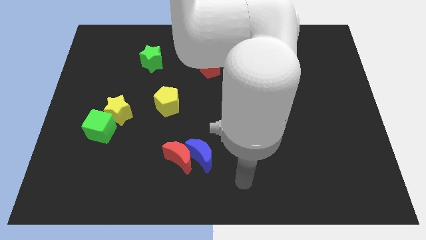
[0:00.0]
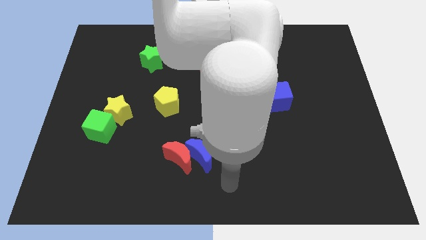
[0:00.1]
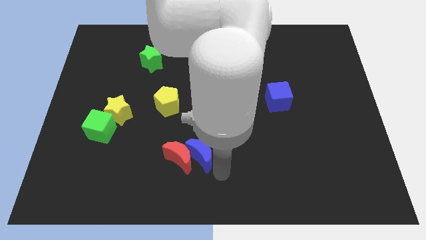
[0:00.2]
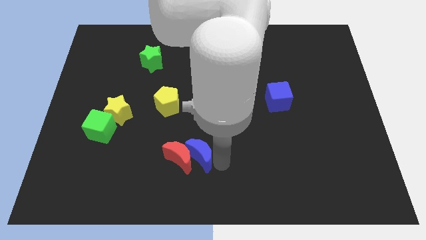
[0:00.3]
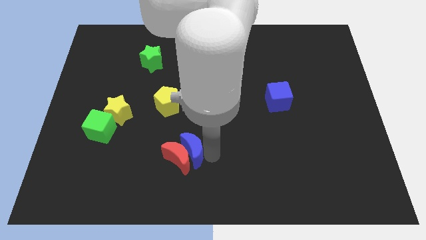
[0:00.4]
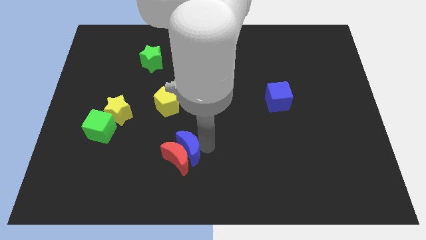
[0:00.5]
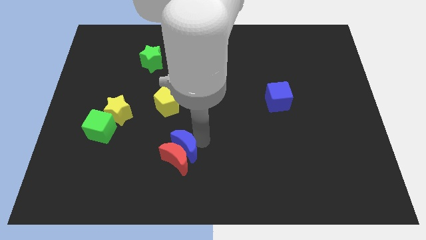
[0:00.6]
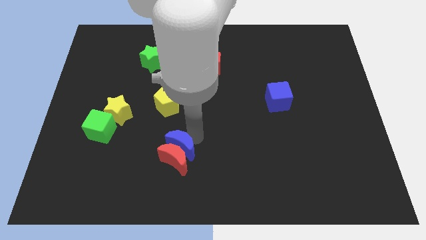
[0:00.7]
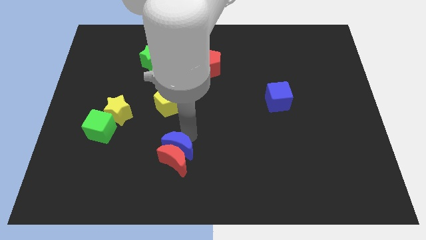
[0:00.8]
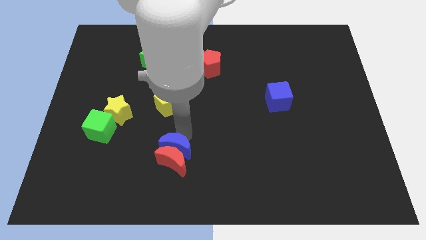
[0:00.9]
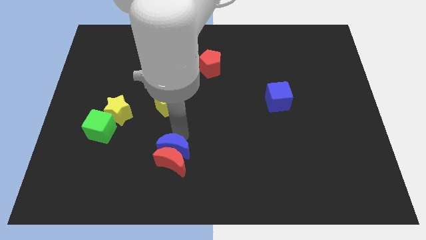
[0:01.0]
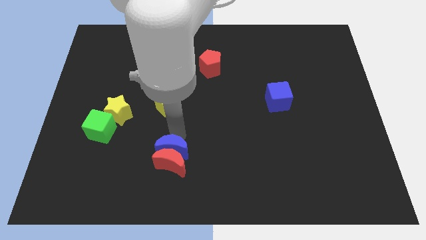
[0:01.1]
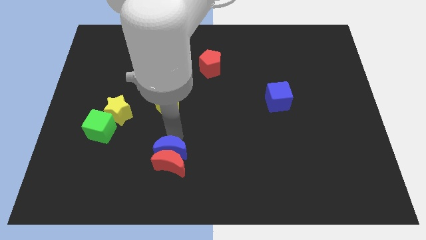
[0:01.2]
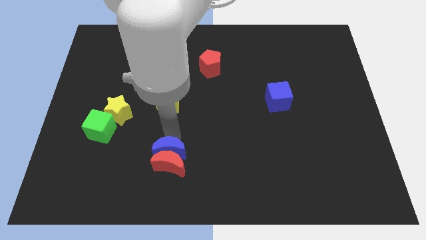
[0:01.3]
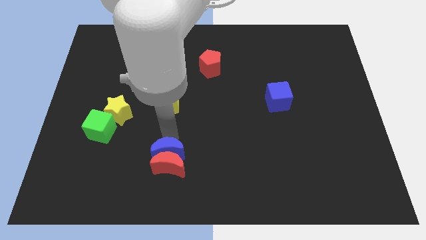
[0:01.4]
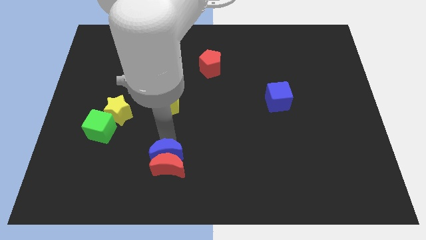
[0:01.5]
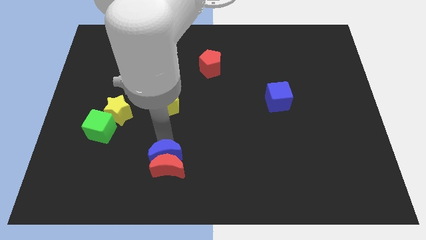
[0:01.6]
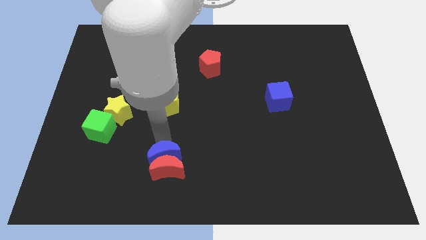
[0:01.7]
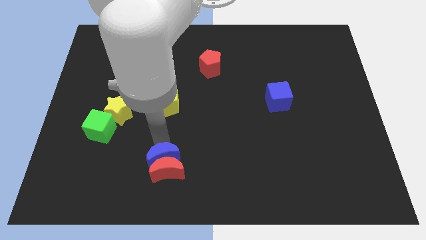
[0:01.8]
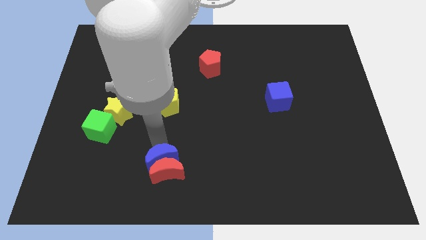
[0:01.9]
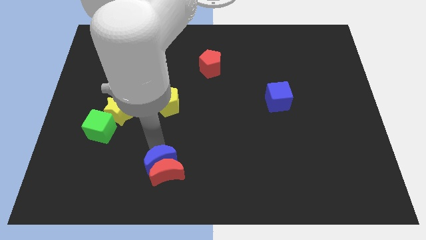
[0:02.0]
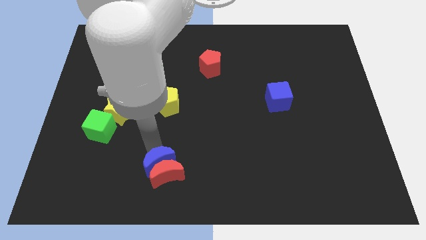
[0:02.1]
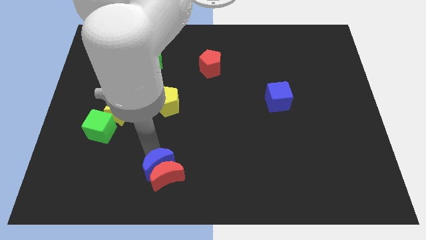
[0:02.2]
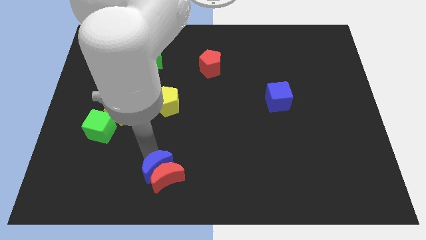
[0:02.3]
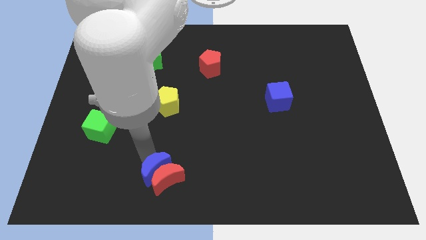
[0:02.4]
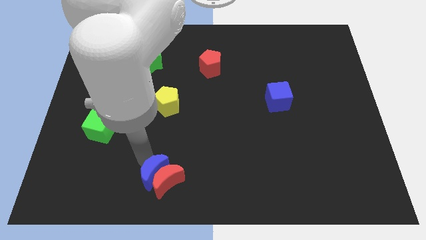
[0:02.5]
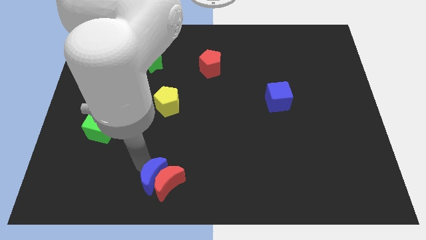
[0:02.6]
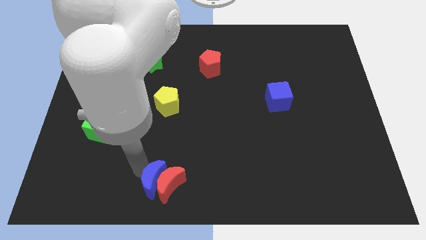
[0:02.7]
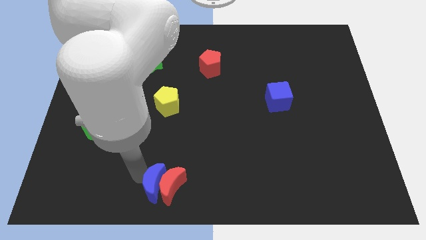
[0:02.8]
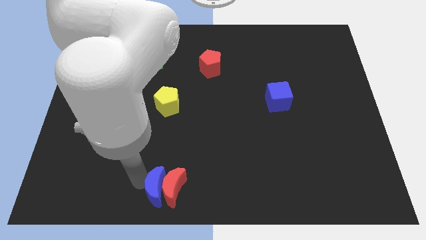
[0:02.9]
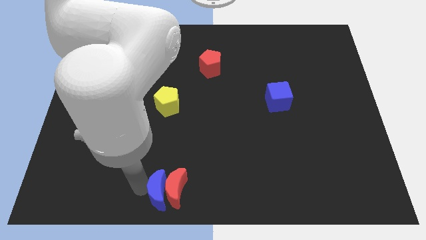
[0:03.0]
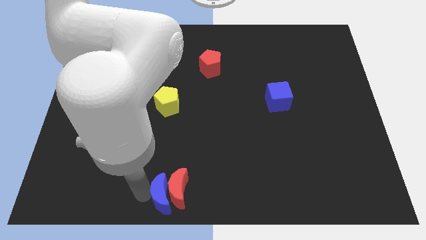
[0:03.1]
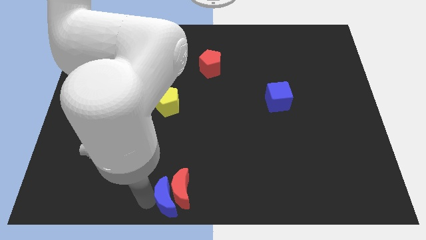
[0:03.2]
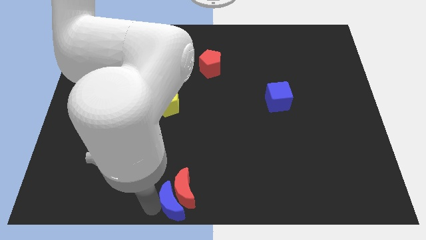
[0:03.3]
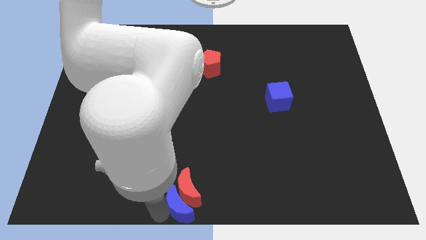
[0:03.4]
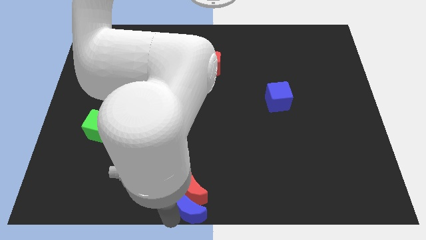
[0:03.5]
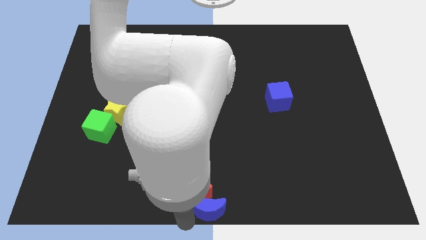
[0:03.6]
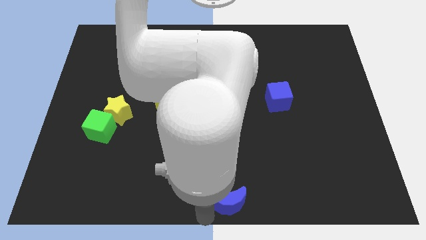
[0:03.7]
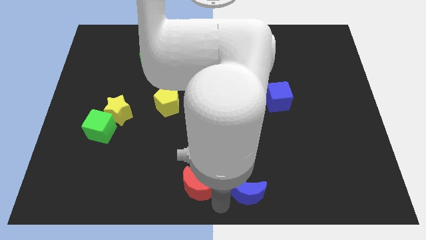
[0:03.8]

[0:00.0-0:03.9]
pull the red moon apart from the blue moon

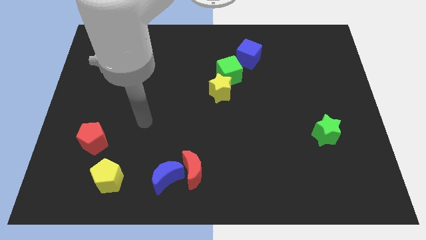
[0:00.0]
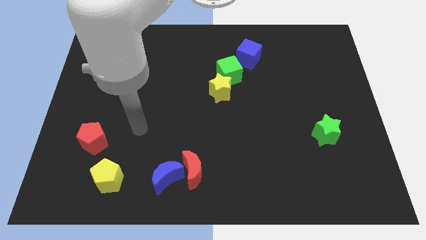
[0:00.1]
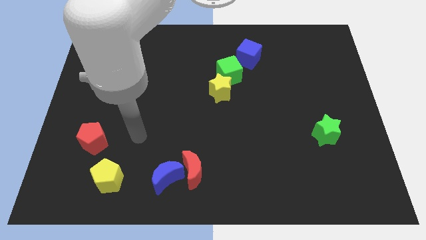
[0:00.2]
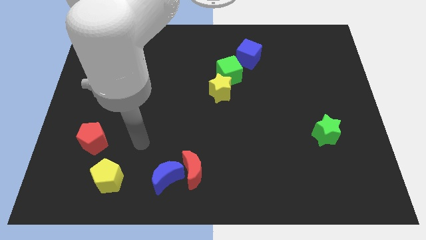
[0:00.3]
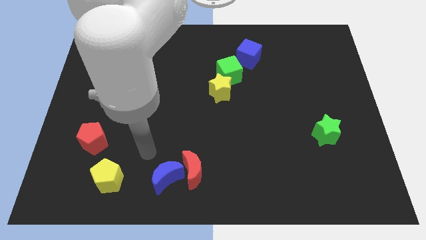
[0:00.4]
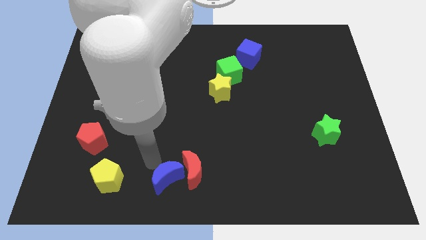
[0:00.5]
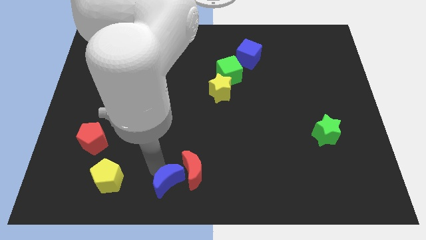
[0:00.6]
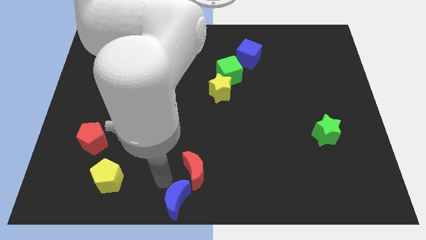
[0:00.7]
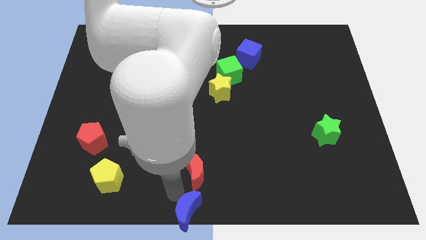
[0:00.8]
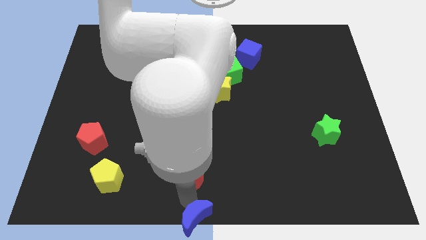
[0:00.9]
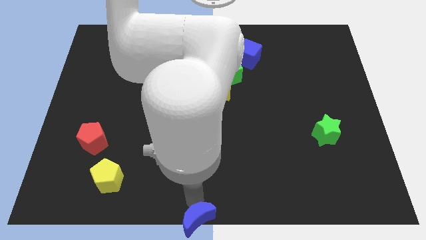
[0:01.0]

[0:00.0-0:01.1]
separate the red moon from the blue moon

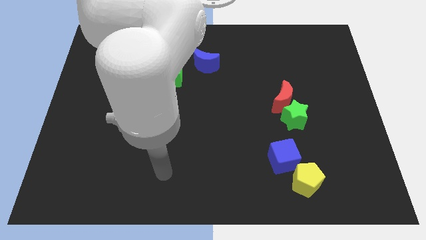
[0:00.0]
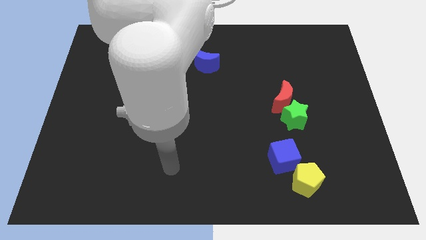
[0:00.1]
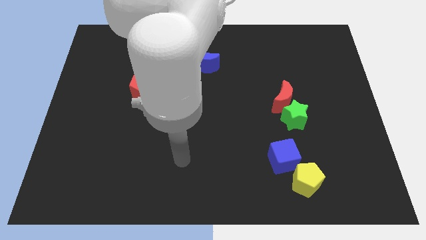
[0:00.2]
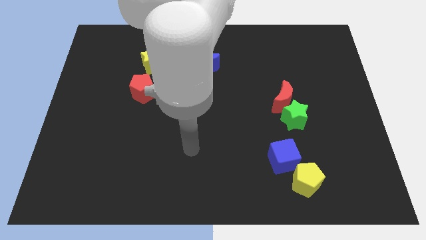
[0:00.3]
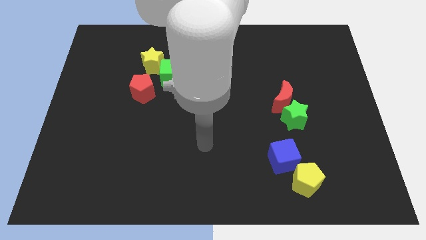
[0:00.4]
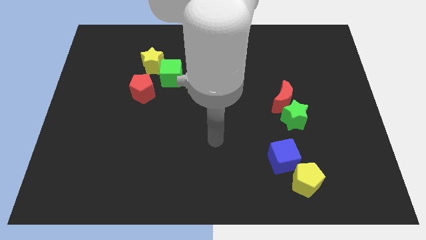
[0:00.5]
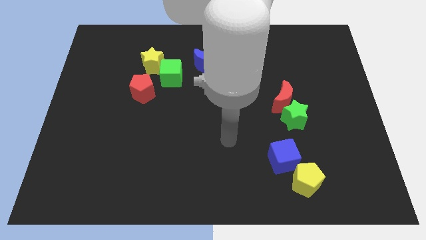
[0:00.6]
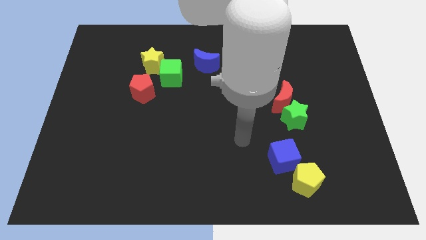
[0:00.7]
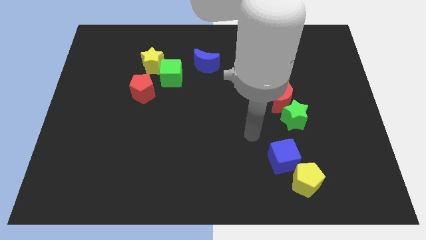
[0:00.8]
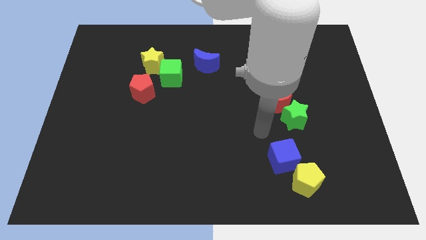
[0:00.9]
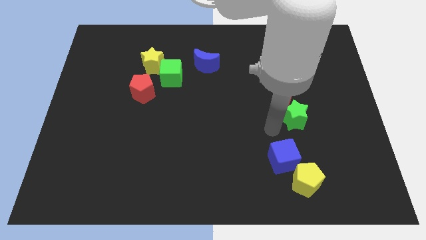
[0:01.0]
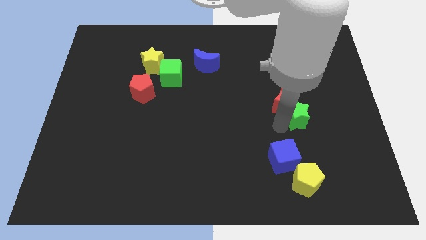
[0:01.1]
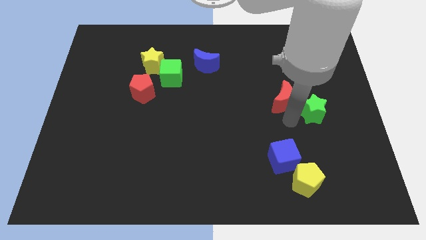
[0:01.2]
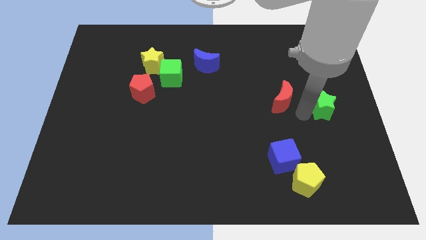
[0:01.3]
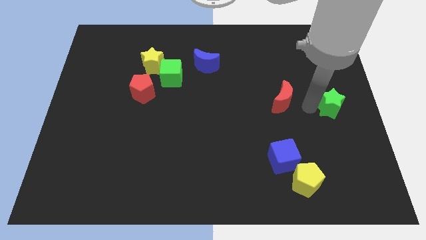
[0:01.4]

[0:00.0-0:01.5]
move the red moon away from the green star

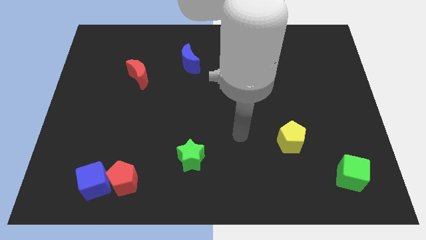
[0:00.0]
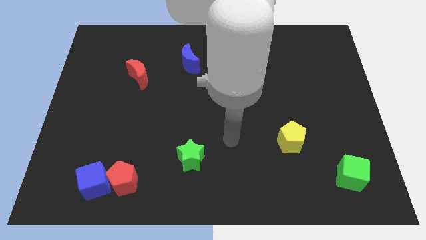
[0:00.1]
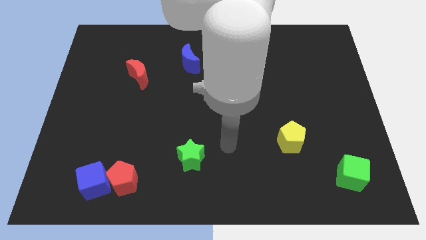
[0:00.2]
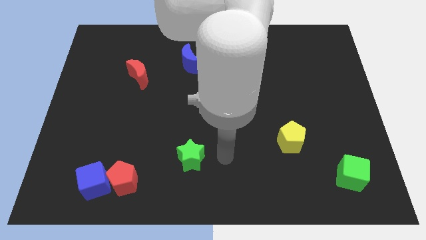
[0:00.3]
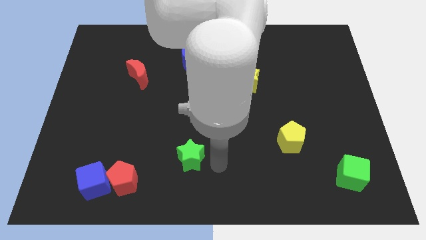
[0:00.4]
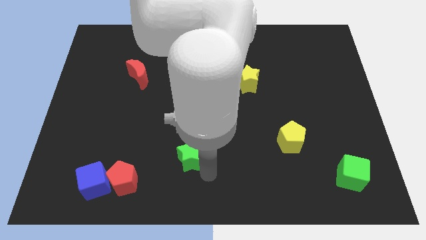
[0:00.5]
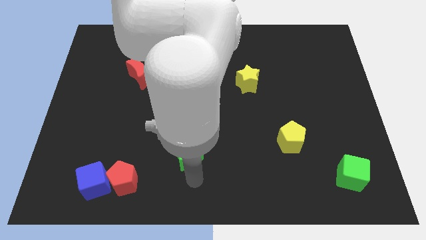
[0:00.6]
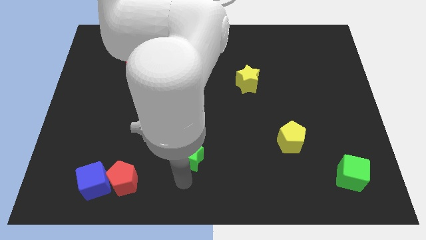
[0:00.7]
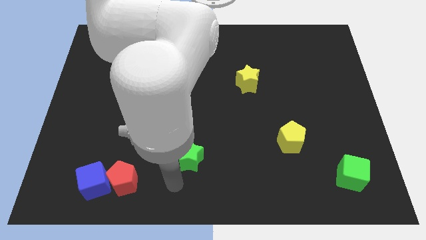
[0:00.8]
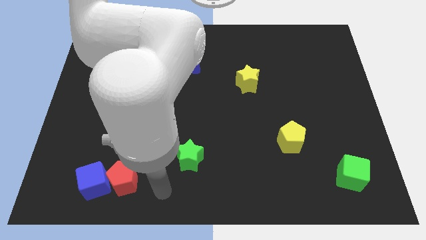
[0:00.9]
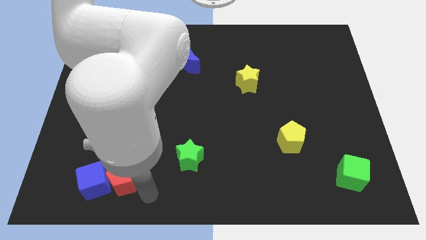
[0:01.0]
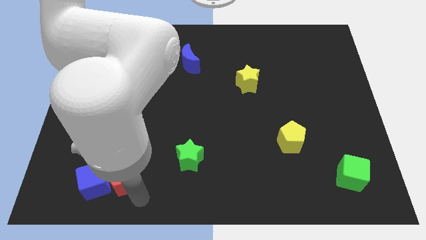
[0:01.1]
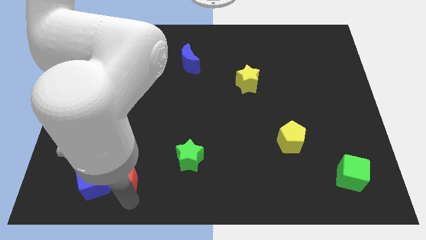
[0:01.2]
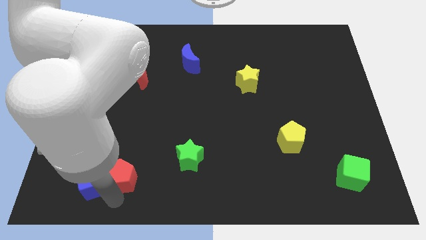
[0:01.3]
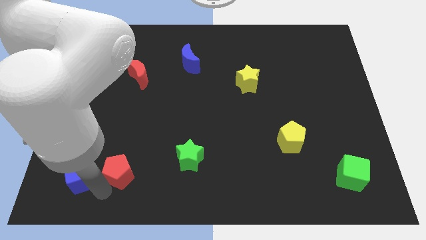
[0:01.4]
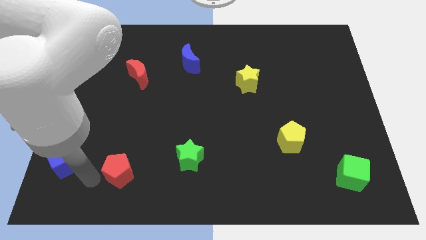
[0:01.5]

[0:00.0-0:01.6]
separate the red pentagon from the blue cube

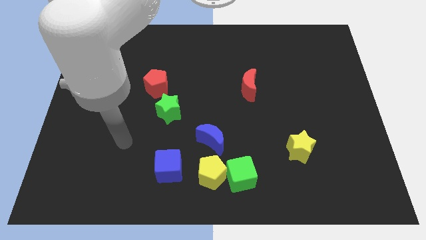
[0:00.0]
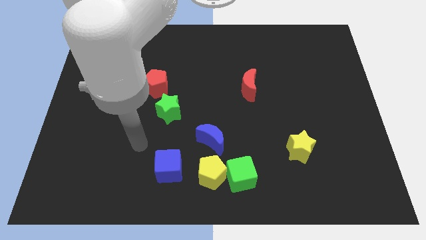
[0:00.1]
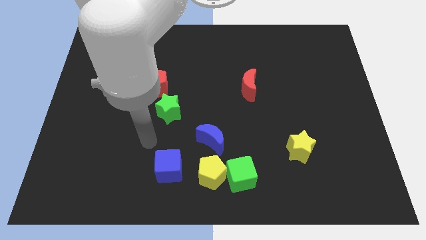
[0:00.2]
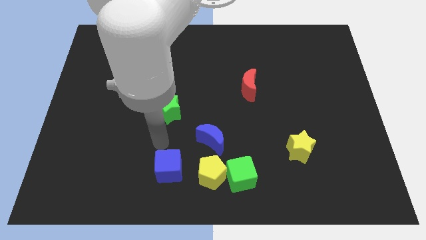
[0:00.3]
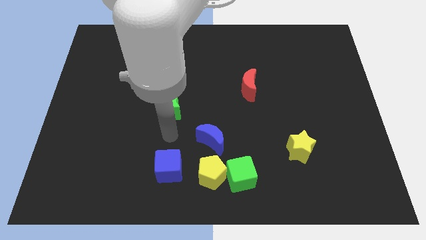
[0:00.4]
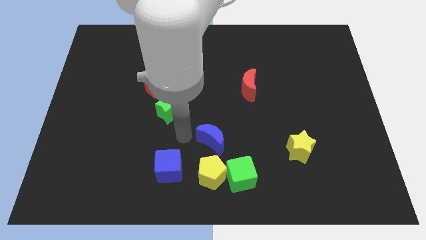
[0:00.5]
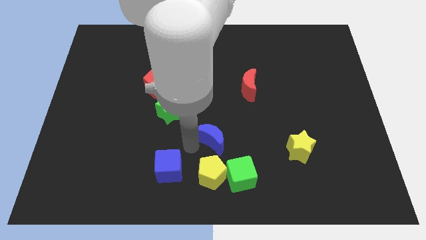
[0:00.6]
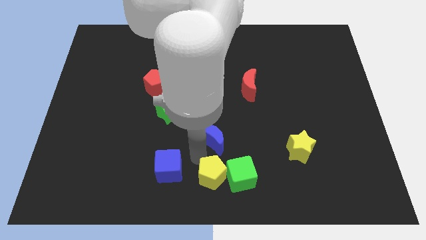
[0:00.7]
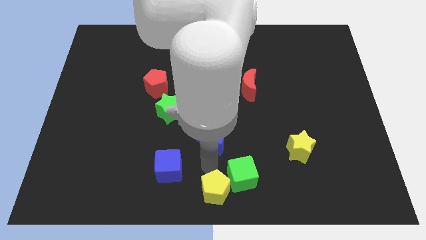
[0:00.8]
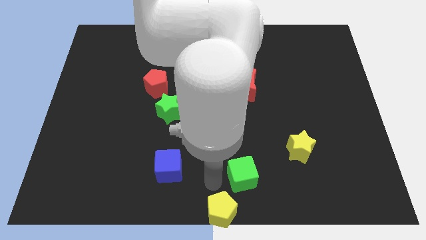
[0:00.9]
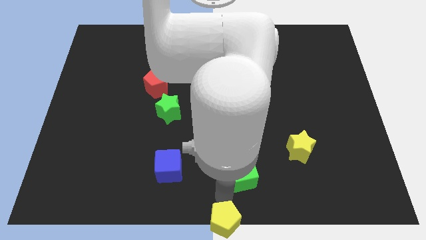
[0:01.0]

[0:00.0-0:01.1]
move the green cube away from the yellow pentagon

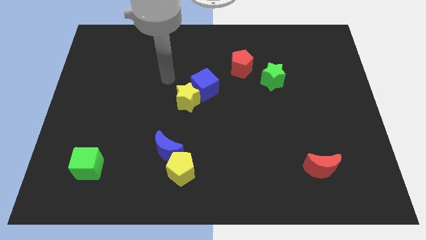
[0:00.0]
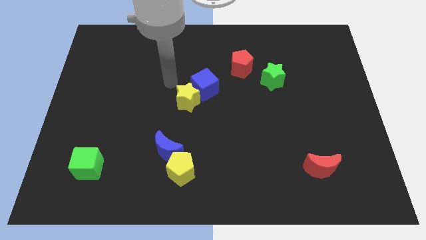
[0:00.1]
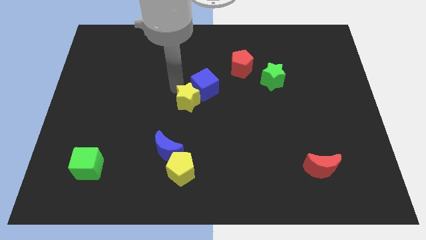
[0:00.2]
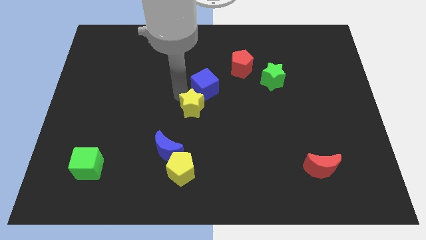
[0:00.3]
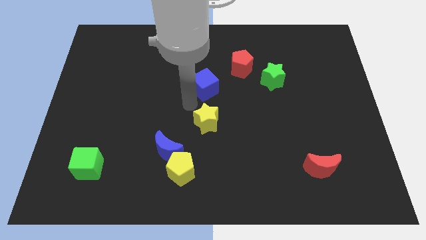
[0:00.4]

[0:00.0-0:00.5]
pull the blue cube apart from the yellow star
